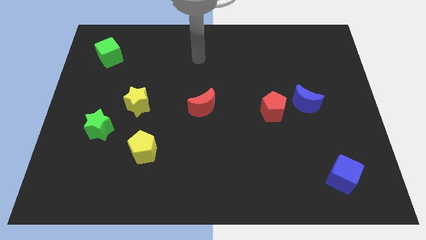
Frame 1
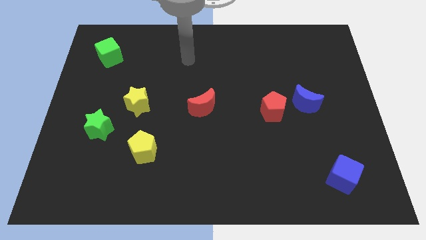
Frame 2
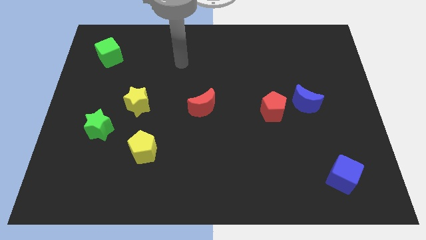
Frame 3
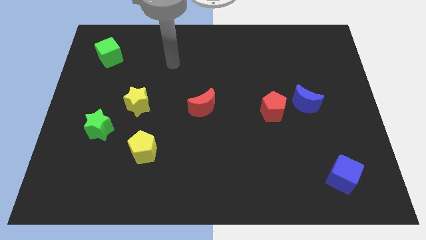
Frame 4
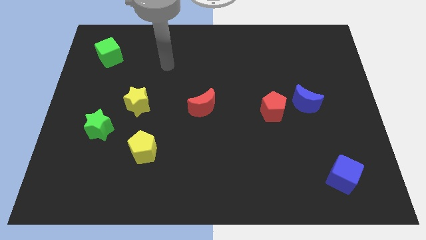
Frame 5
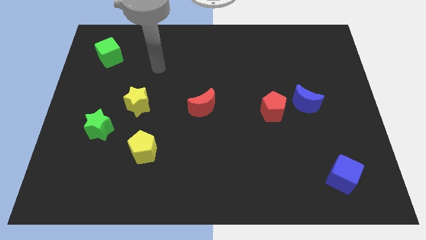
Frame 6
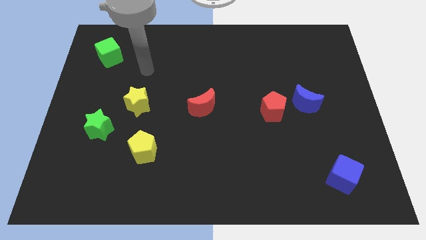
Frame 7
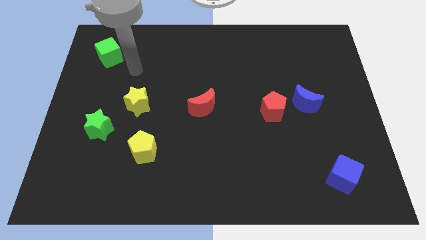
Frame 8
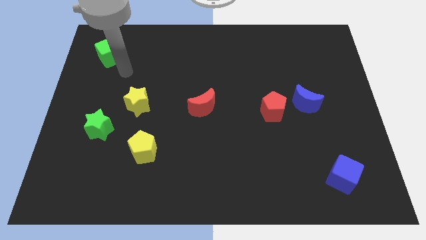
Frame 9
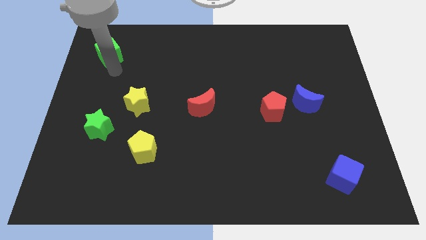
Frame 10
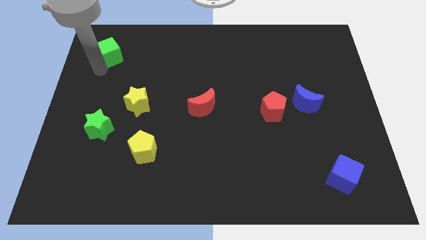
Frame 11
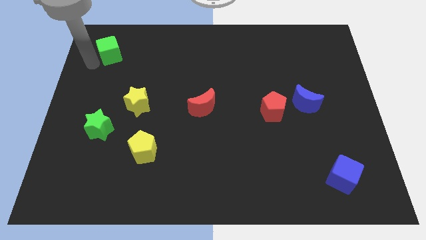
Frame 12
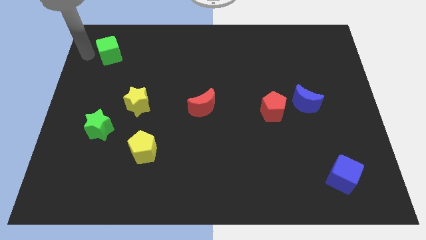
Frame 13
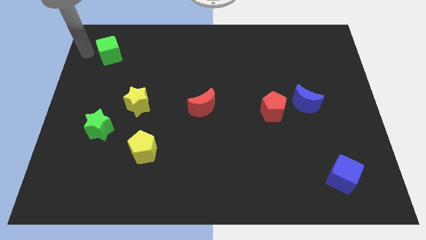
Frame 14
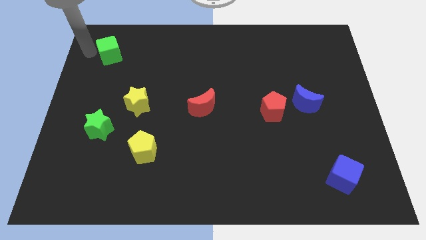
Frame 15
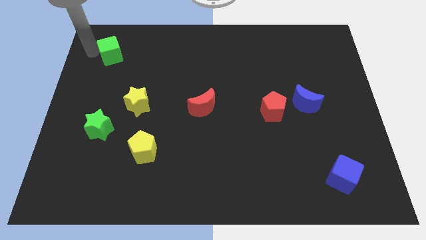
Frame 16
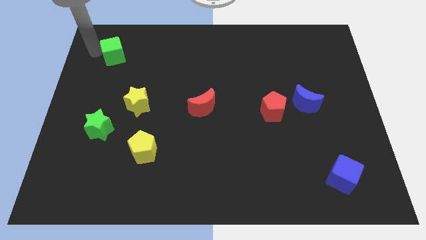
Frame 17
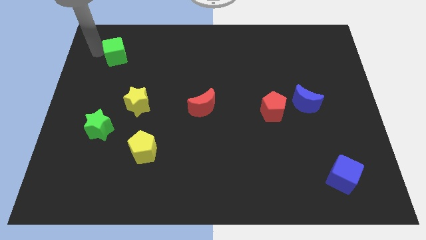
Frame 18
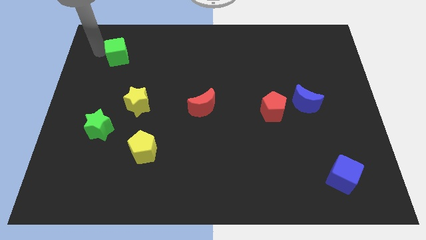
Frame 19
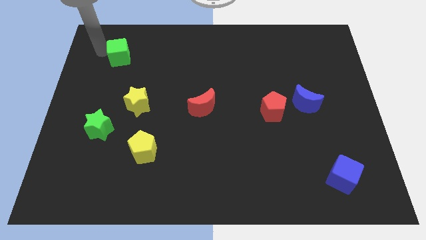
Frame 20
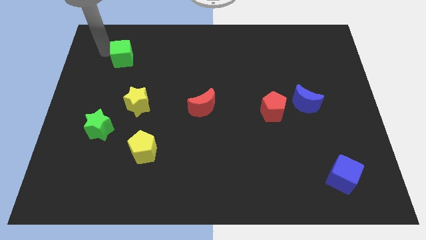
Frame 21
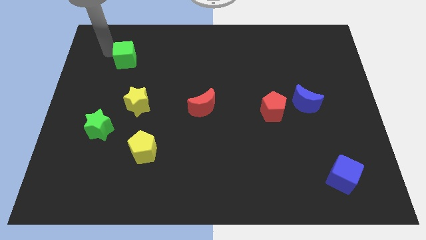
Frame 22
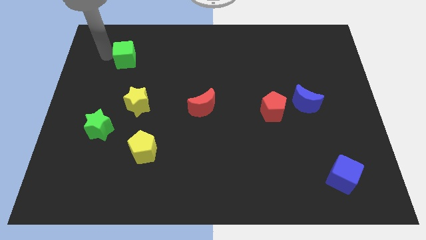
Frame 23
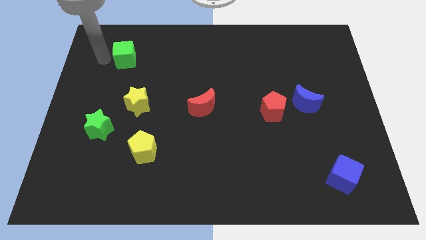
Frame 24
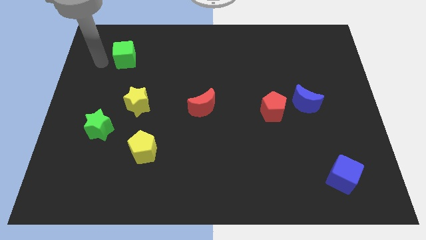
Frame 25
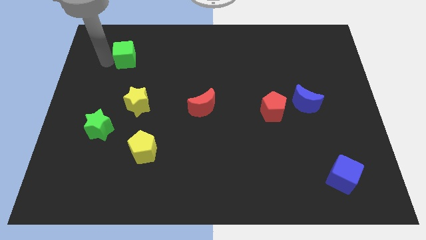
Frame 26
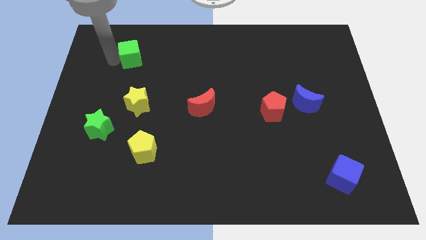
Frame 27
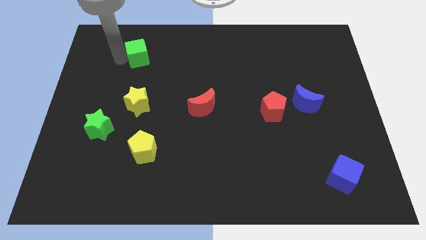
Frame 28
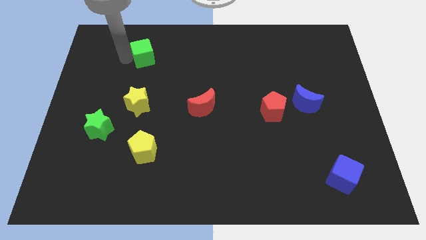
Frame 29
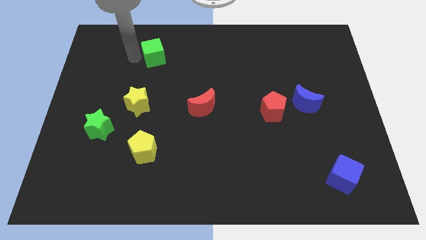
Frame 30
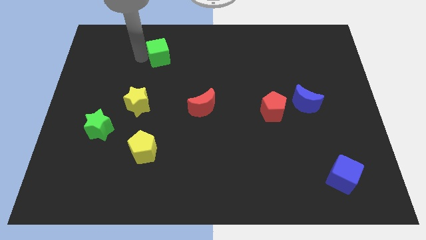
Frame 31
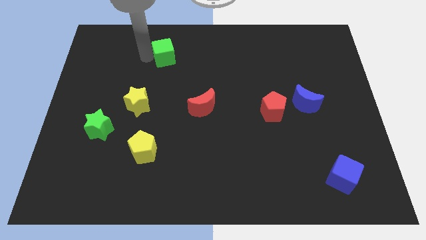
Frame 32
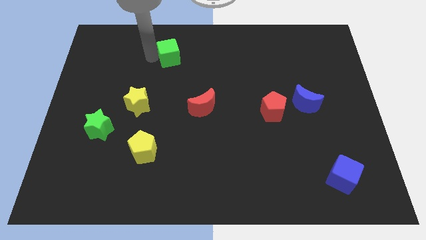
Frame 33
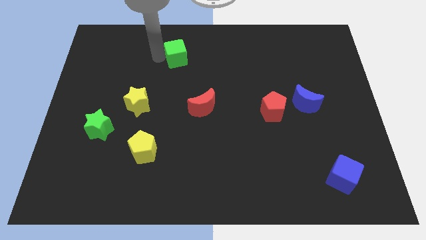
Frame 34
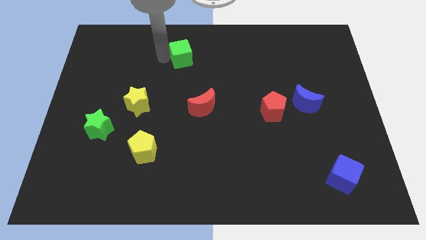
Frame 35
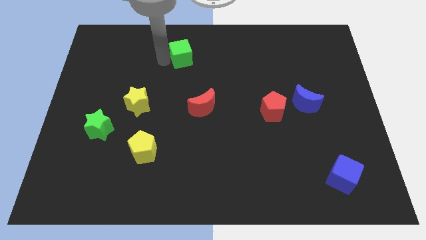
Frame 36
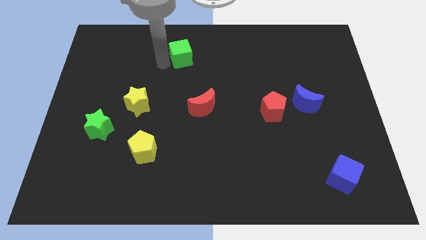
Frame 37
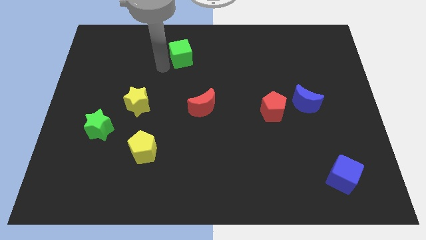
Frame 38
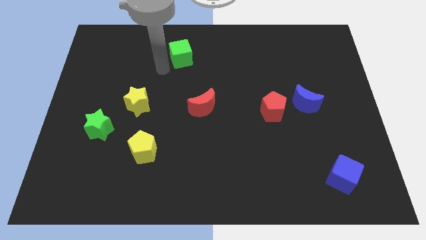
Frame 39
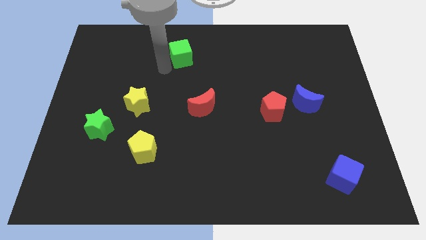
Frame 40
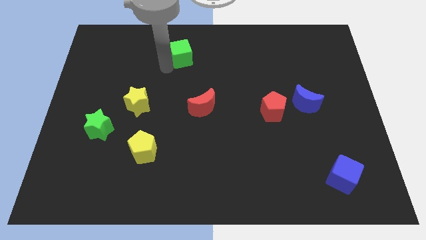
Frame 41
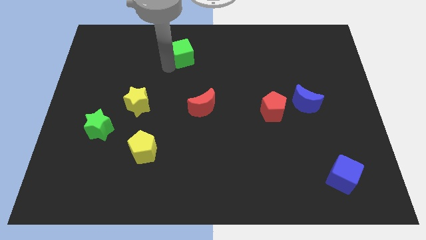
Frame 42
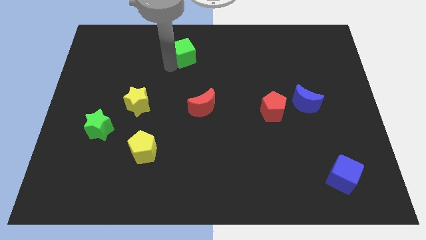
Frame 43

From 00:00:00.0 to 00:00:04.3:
push the green cube right

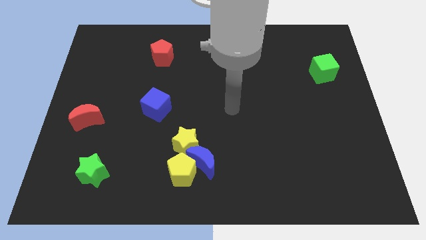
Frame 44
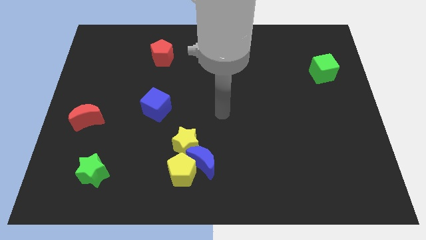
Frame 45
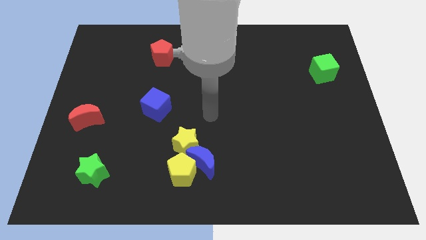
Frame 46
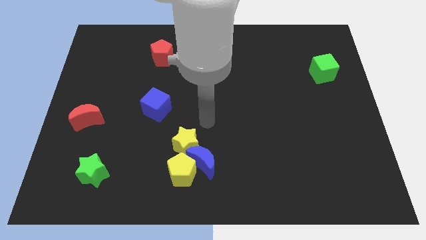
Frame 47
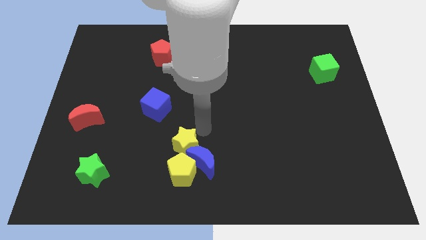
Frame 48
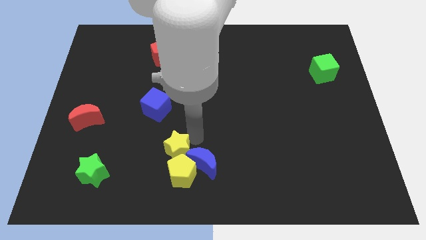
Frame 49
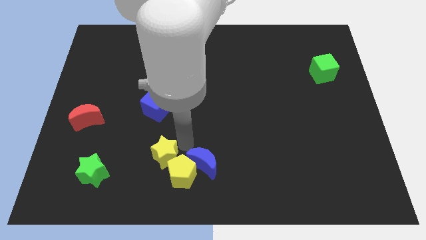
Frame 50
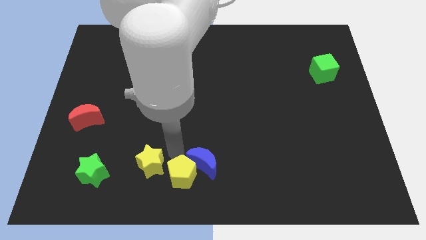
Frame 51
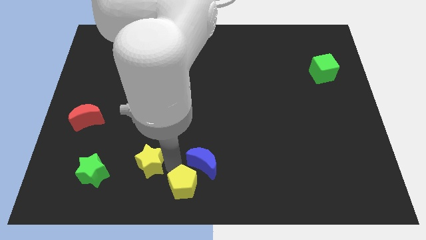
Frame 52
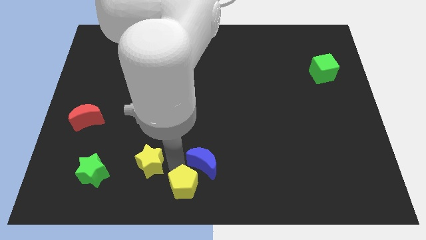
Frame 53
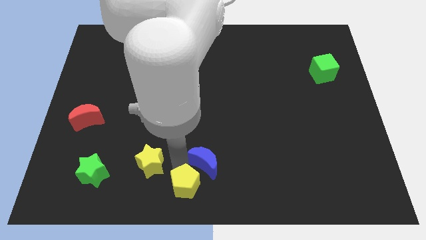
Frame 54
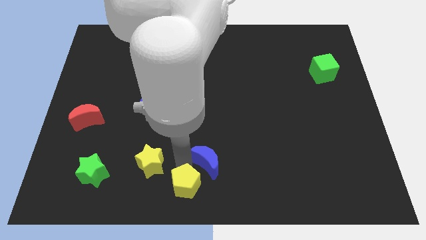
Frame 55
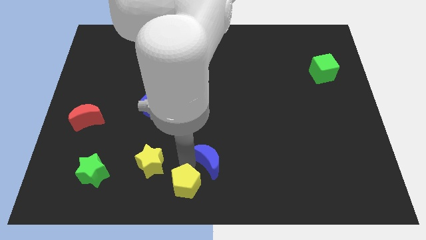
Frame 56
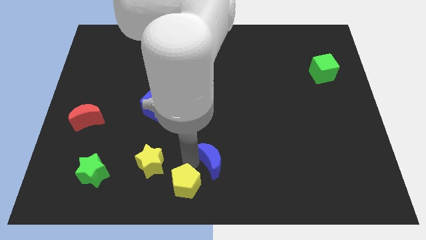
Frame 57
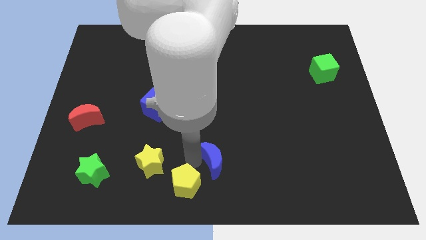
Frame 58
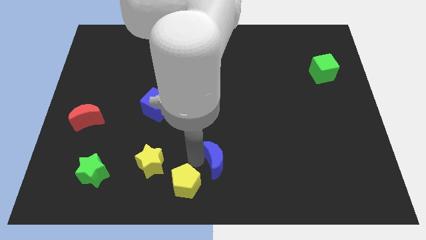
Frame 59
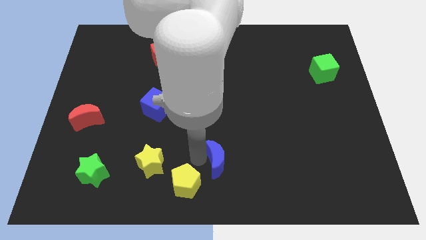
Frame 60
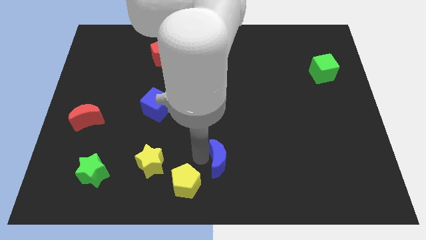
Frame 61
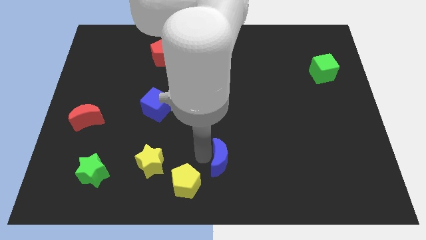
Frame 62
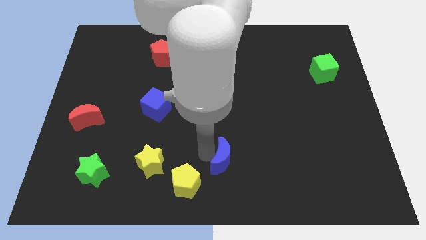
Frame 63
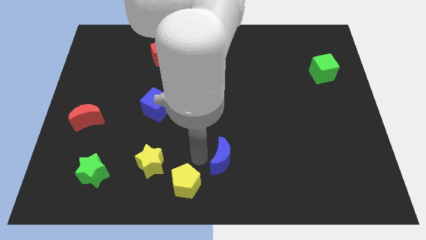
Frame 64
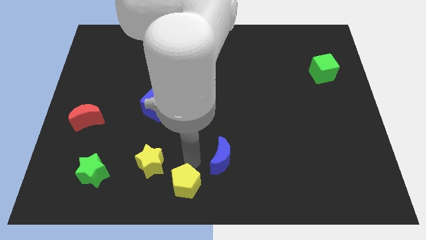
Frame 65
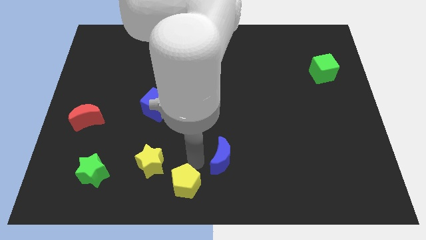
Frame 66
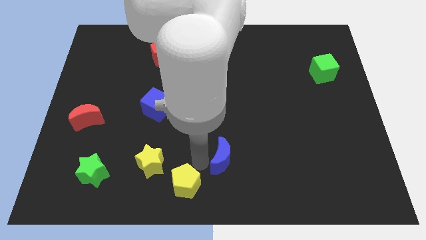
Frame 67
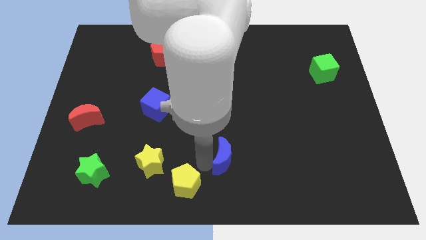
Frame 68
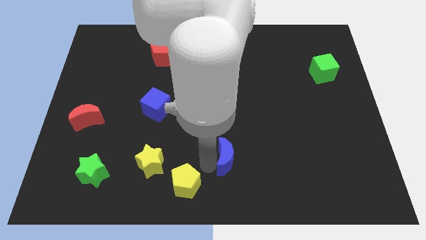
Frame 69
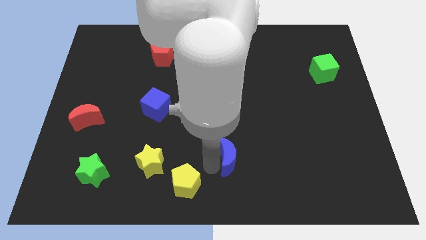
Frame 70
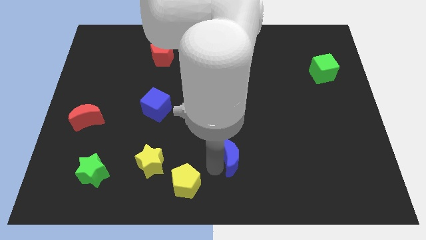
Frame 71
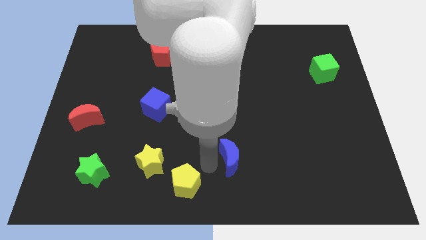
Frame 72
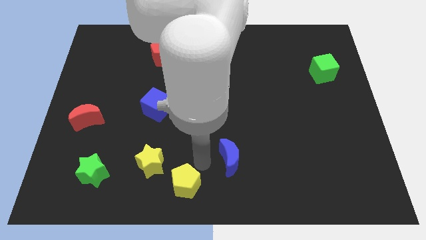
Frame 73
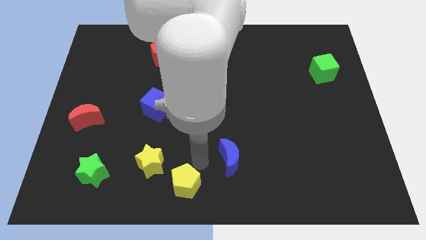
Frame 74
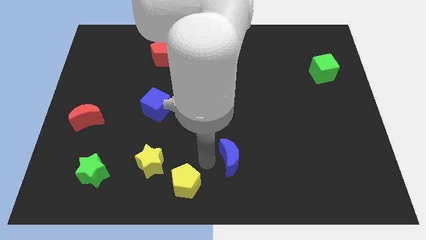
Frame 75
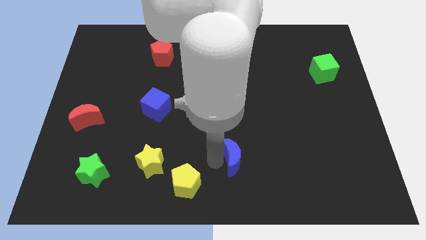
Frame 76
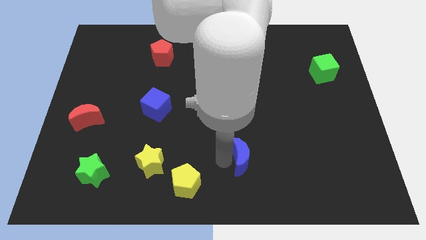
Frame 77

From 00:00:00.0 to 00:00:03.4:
push the blue moon to the right a little

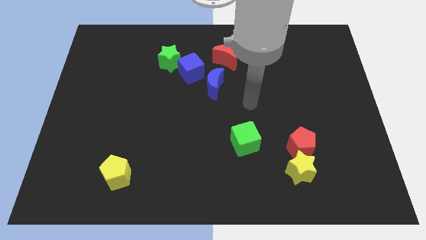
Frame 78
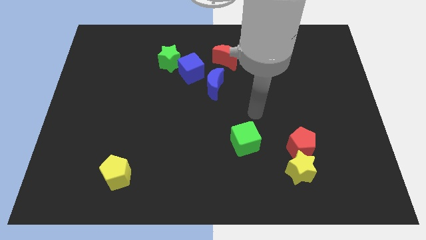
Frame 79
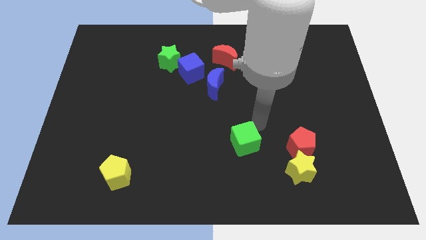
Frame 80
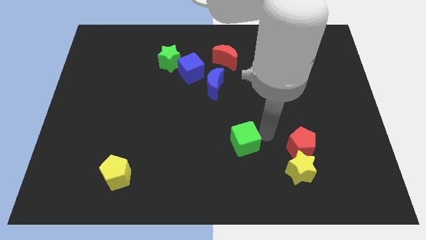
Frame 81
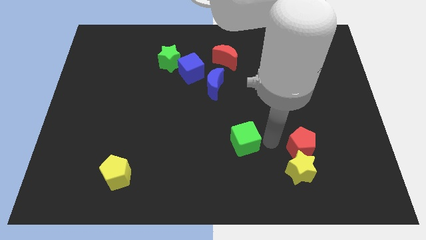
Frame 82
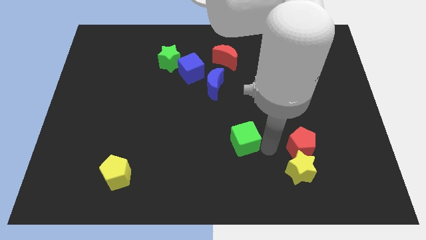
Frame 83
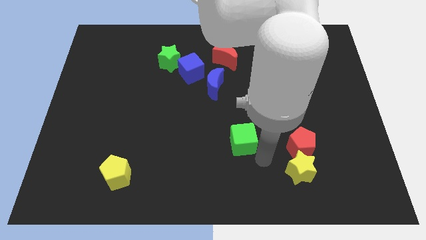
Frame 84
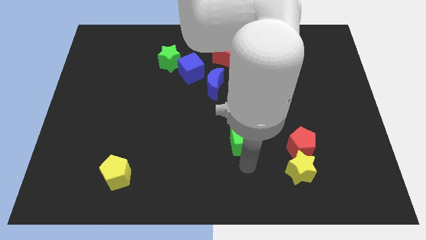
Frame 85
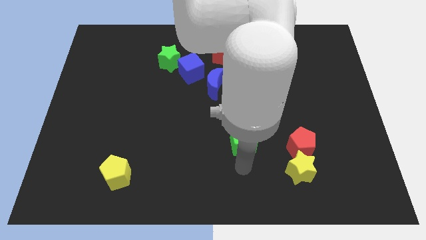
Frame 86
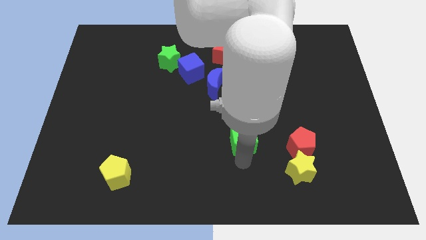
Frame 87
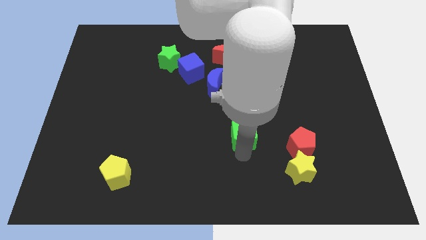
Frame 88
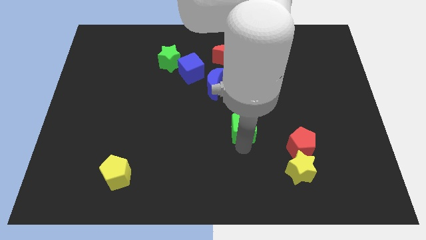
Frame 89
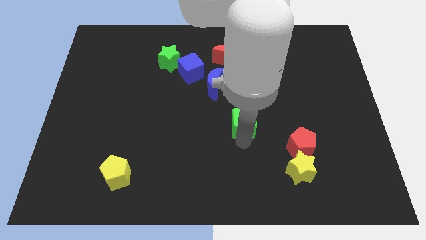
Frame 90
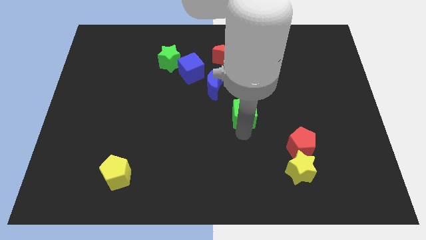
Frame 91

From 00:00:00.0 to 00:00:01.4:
push the green cube a bit up
